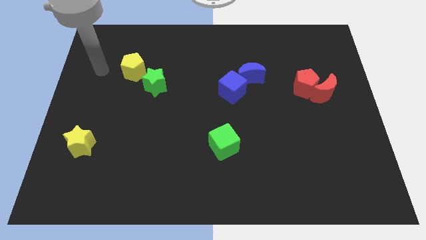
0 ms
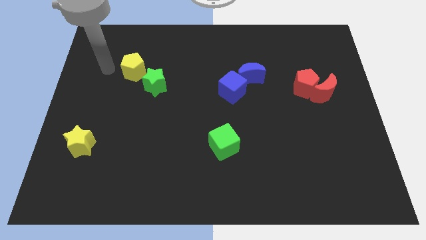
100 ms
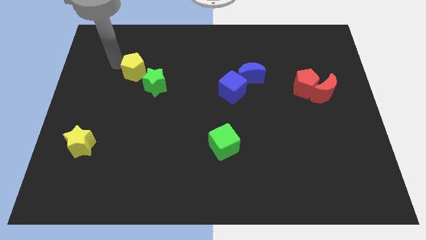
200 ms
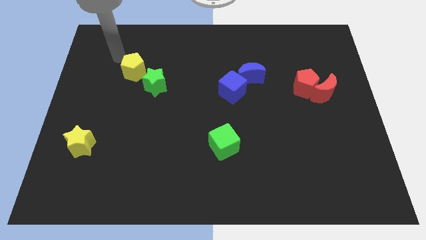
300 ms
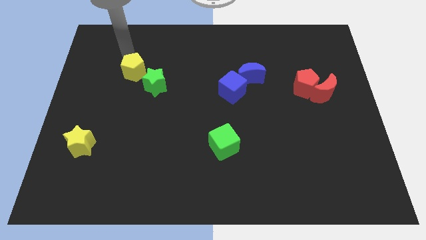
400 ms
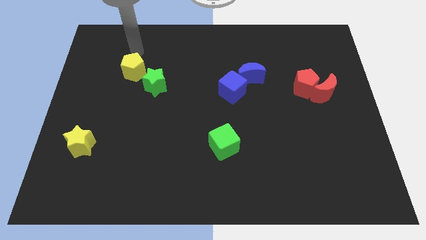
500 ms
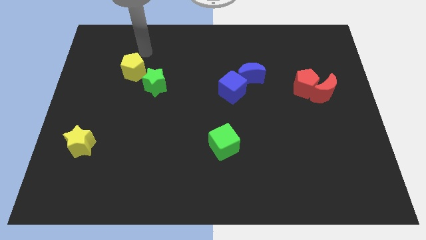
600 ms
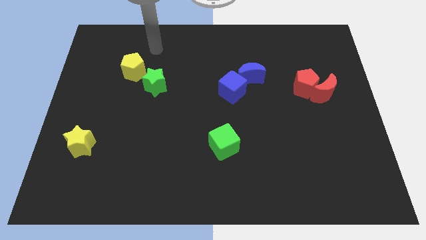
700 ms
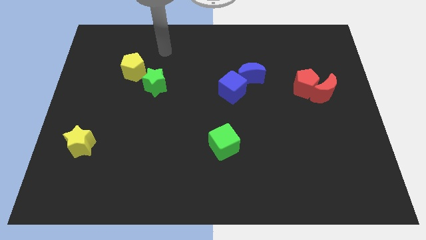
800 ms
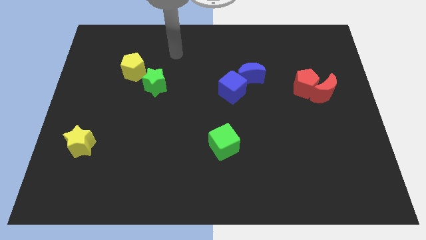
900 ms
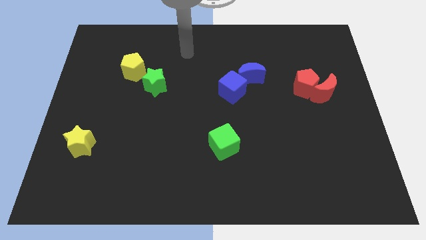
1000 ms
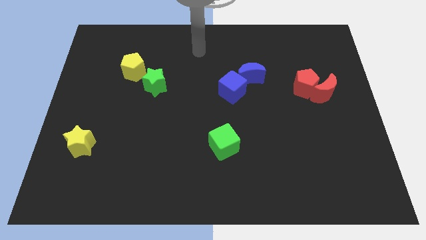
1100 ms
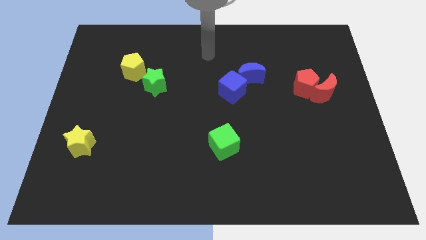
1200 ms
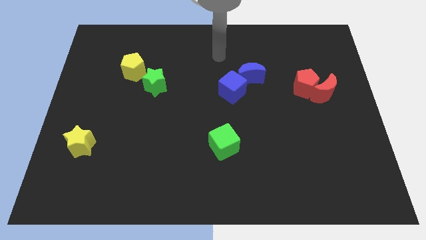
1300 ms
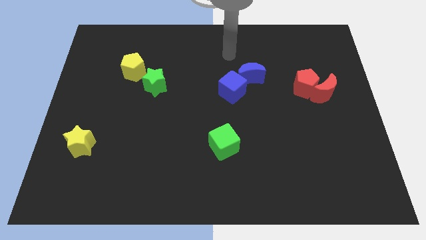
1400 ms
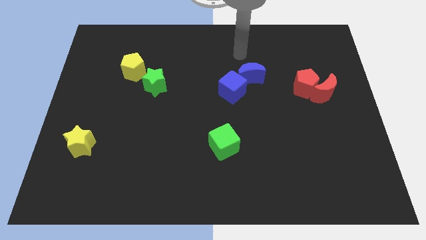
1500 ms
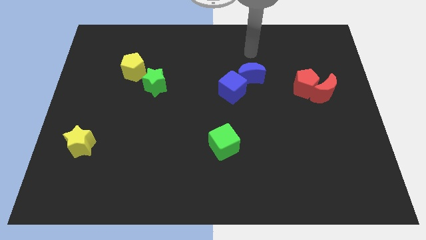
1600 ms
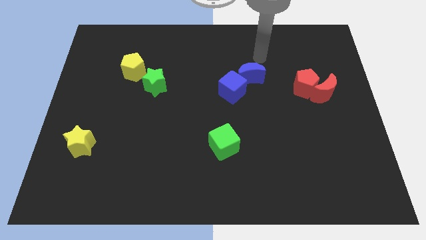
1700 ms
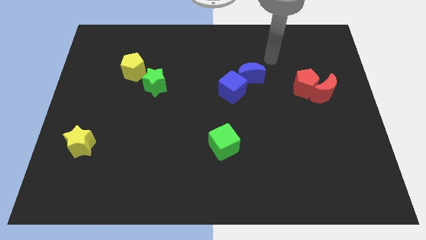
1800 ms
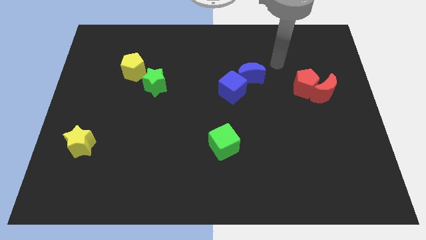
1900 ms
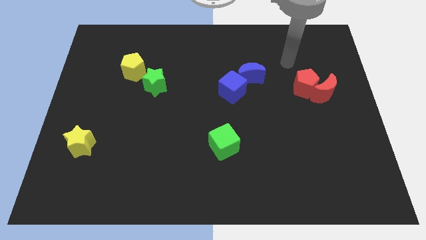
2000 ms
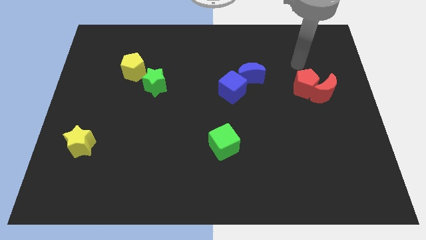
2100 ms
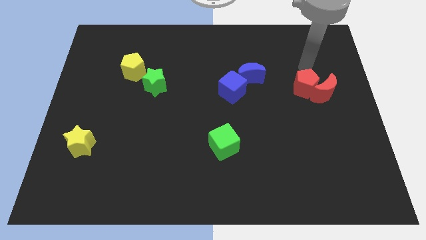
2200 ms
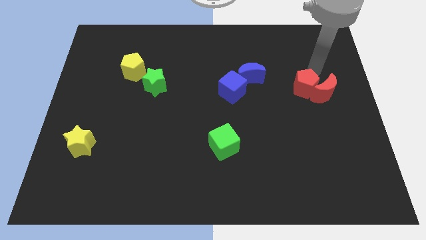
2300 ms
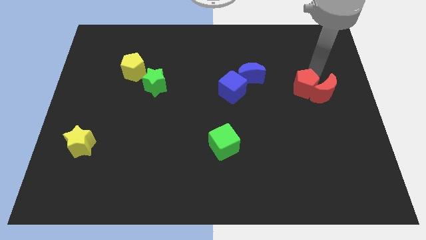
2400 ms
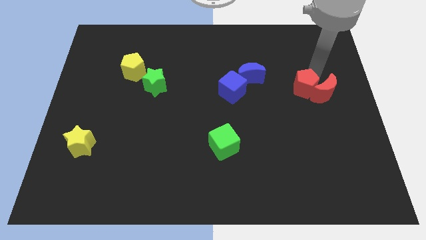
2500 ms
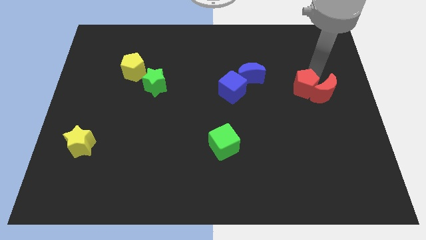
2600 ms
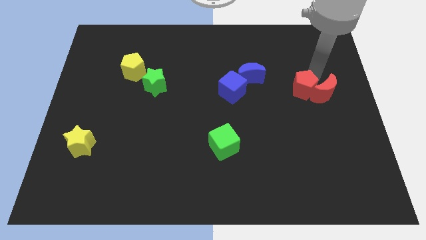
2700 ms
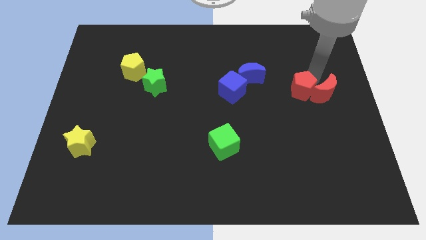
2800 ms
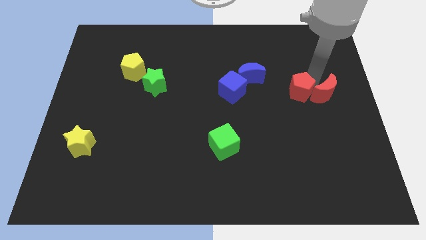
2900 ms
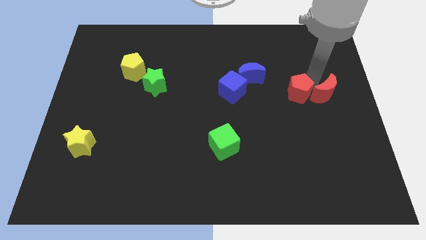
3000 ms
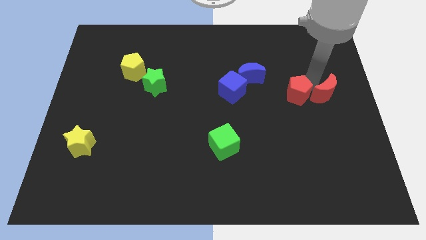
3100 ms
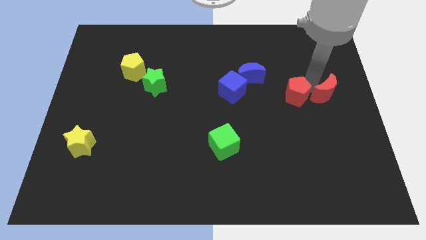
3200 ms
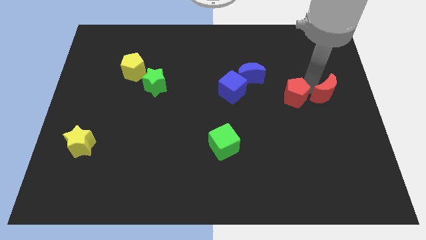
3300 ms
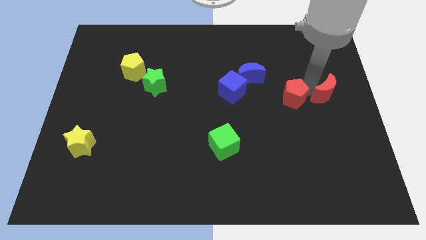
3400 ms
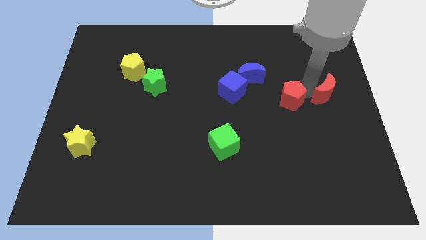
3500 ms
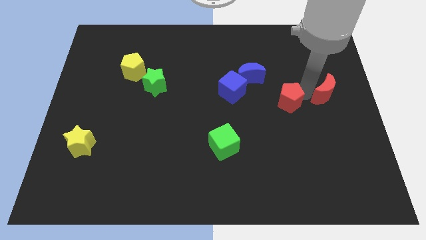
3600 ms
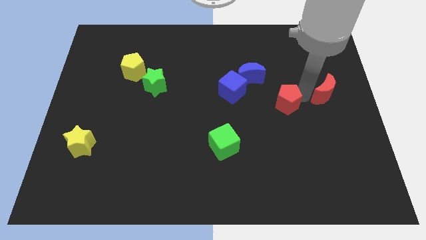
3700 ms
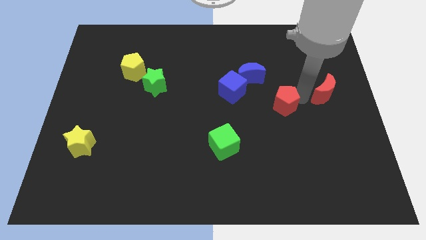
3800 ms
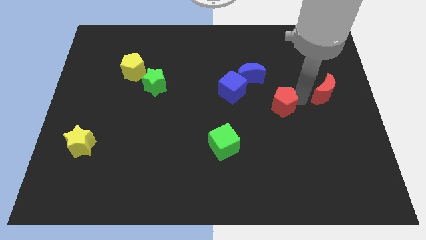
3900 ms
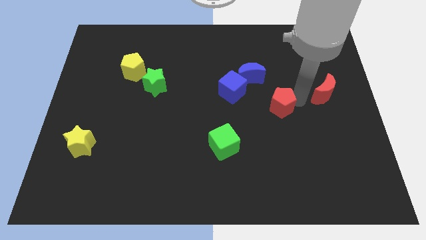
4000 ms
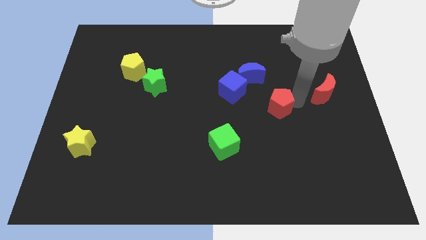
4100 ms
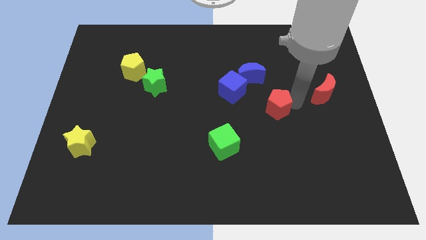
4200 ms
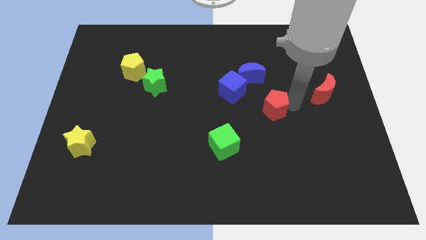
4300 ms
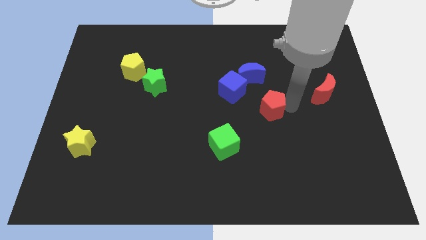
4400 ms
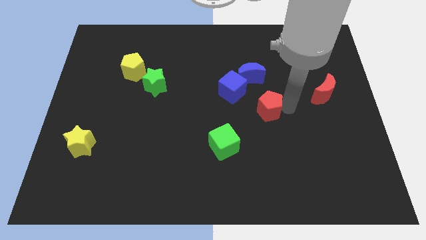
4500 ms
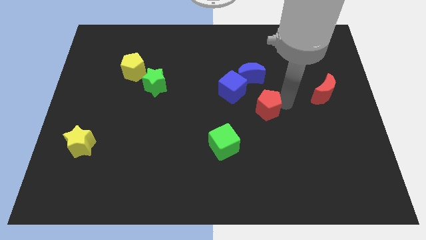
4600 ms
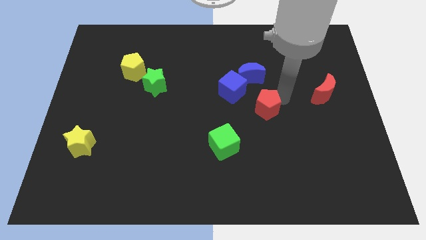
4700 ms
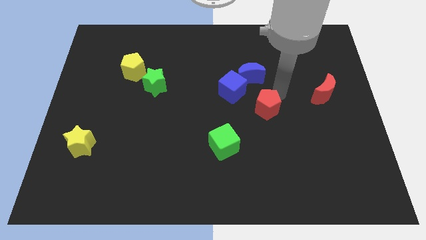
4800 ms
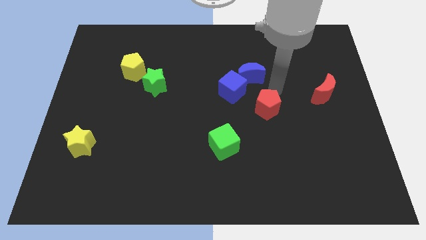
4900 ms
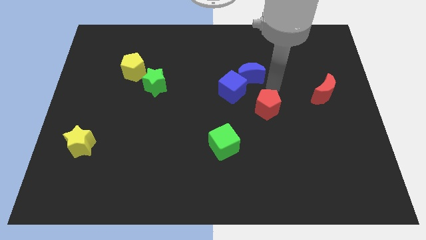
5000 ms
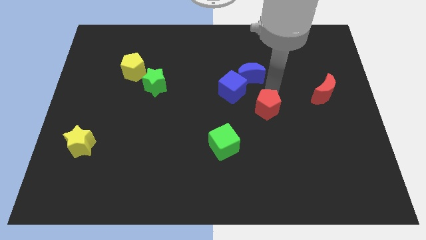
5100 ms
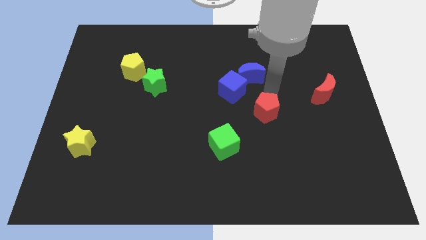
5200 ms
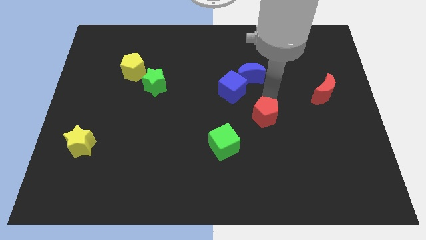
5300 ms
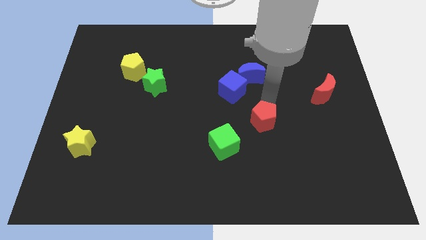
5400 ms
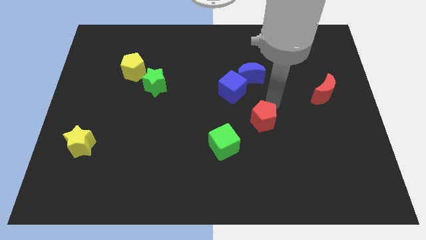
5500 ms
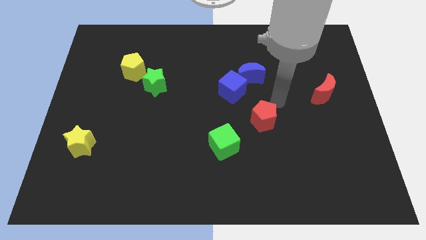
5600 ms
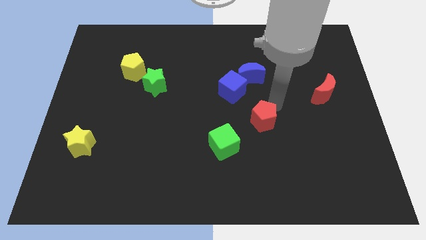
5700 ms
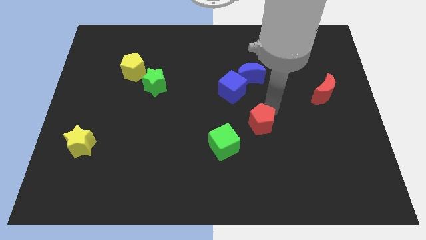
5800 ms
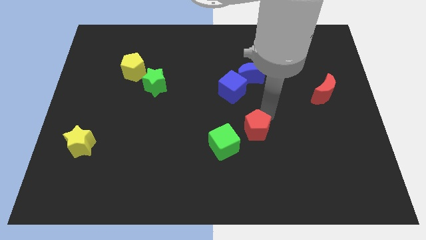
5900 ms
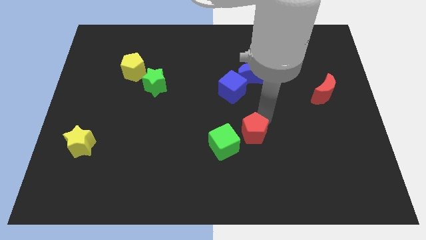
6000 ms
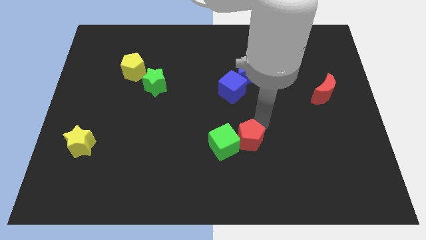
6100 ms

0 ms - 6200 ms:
slide the red pentagon towards the green cube

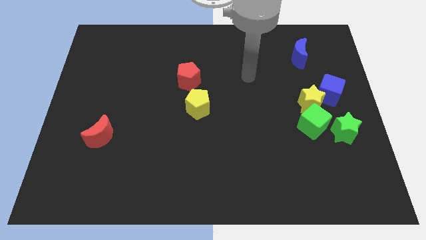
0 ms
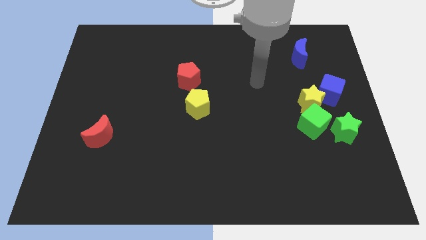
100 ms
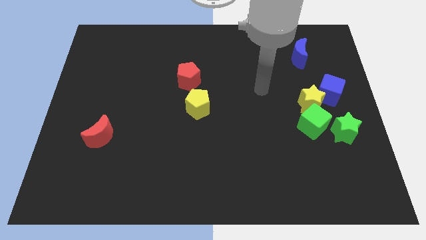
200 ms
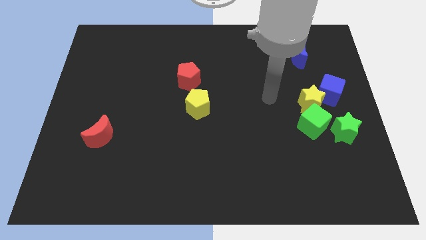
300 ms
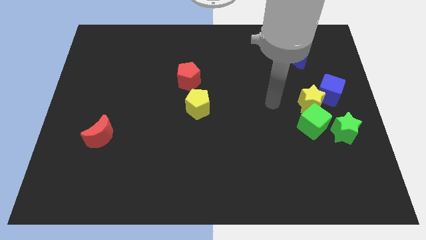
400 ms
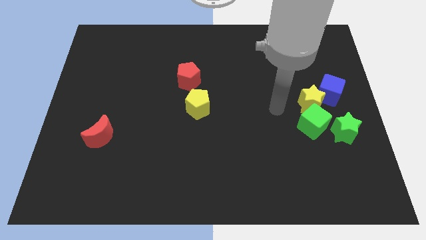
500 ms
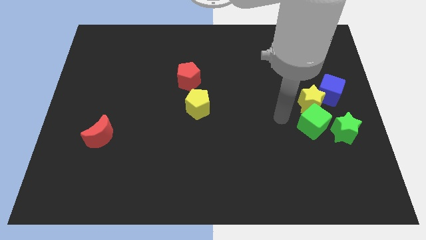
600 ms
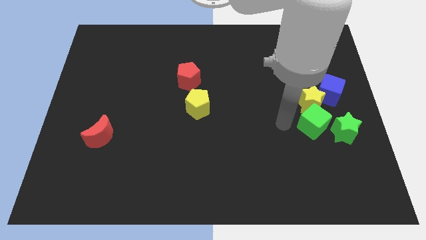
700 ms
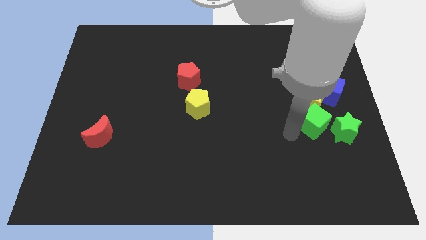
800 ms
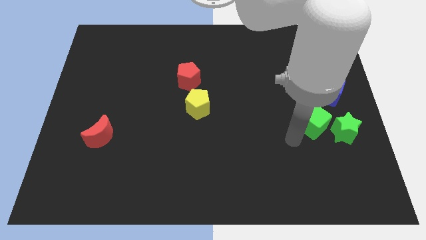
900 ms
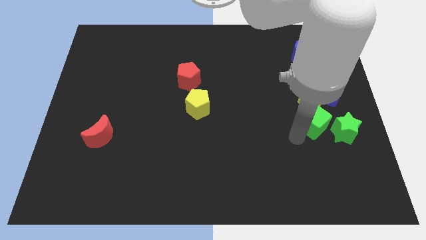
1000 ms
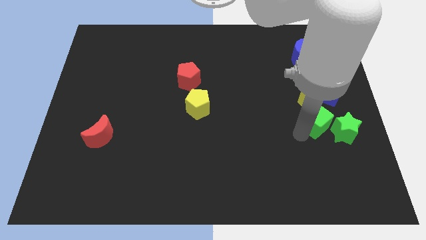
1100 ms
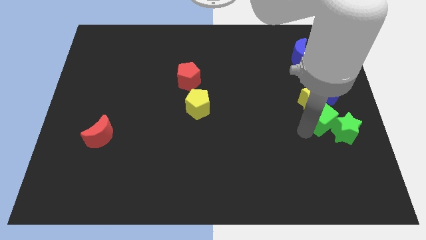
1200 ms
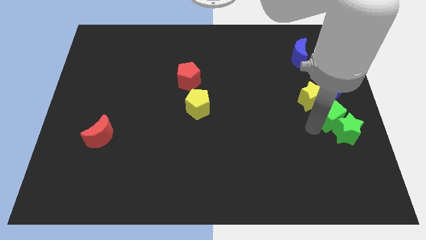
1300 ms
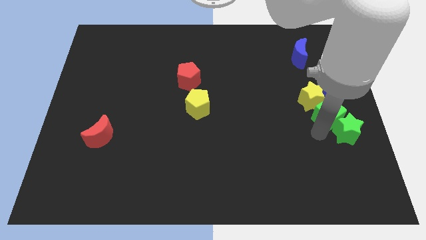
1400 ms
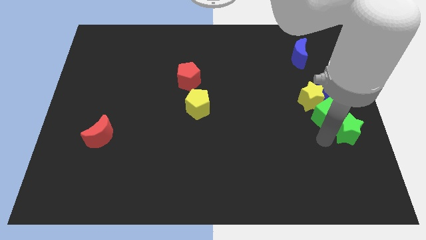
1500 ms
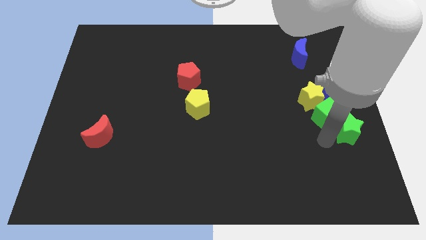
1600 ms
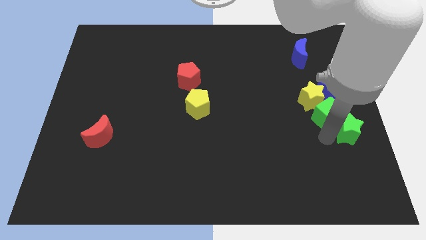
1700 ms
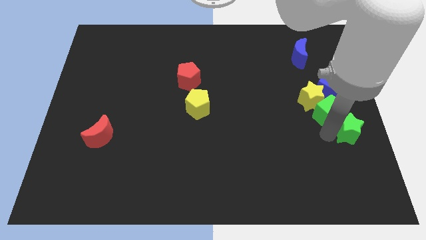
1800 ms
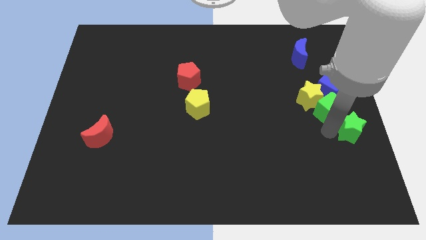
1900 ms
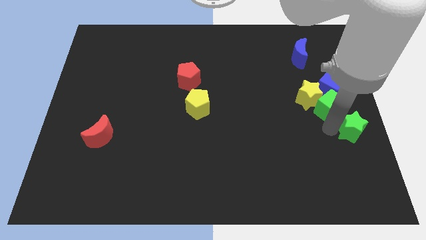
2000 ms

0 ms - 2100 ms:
push the green cube next to the blue cube

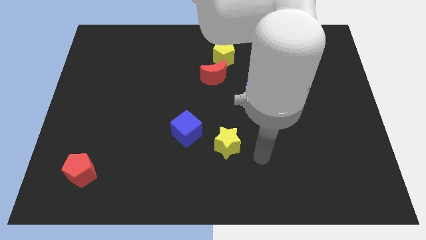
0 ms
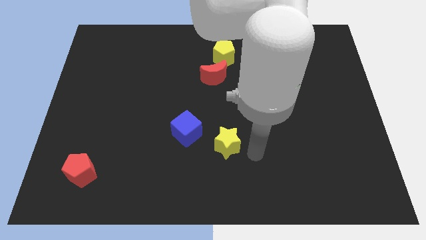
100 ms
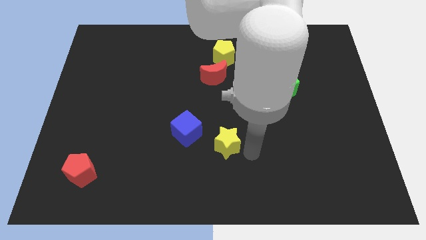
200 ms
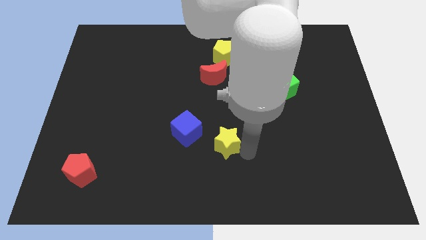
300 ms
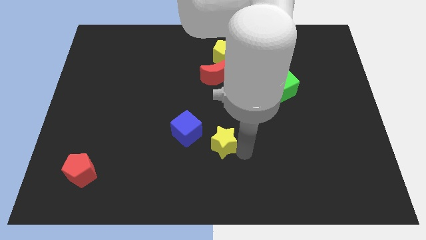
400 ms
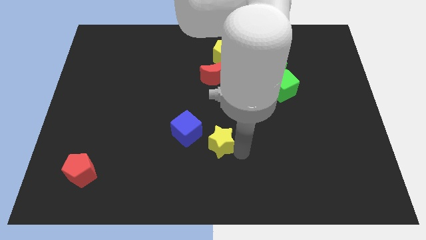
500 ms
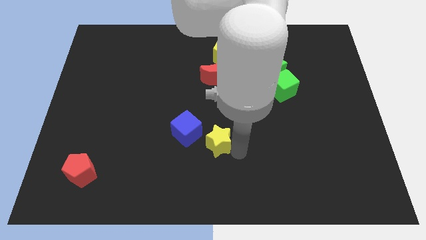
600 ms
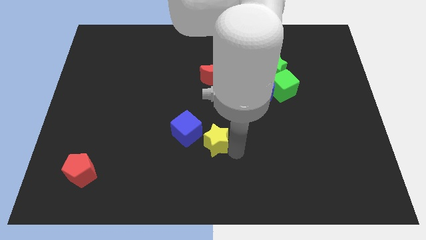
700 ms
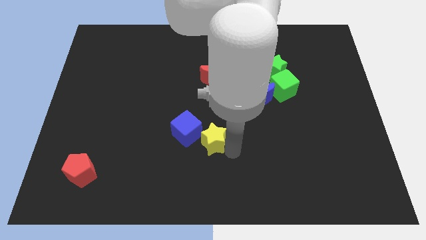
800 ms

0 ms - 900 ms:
slide the yellow star next to the blue cube
